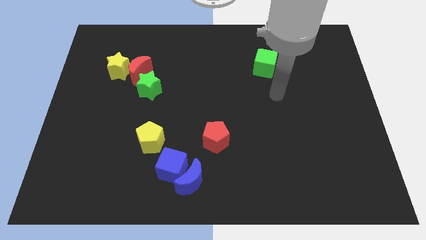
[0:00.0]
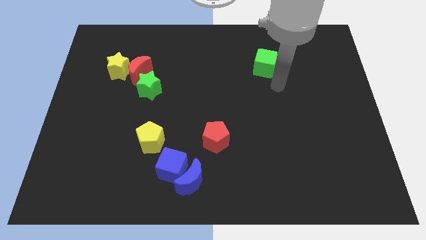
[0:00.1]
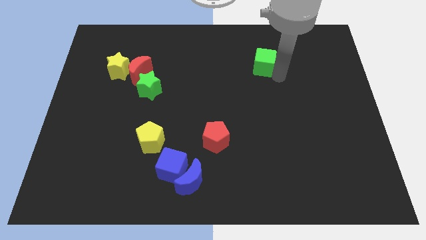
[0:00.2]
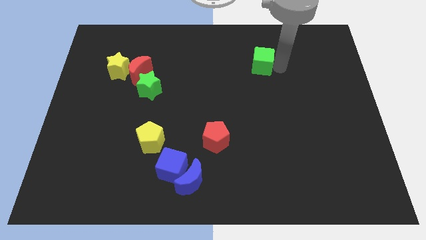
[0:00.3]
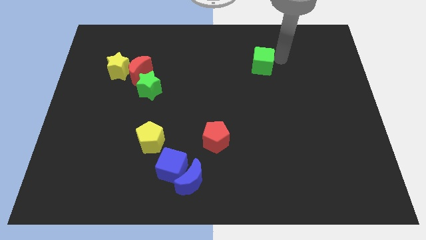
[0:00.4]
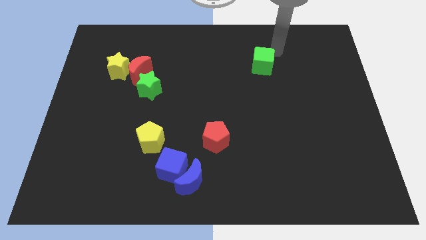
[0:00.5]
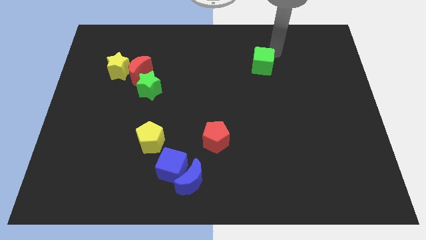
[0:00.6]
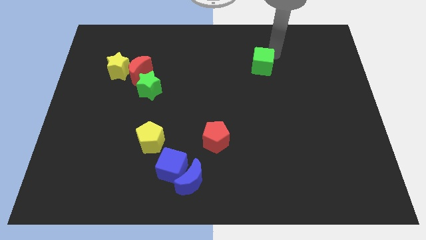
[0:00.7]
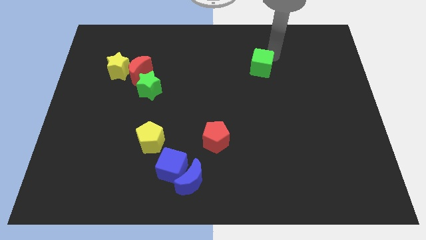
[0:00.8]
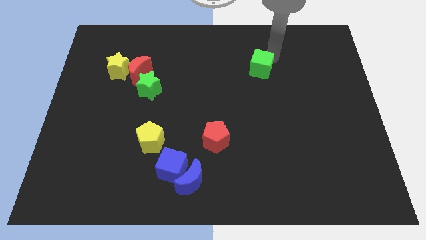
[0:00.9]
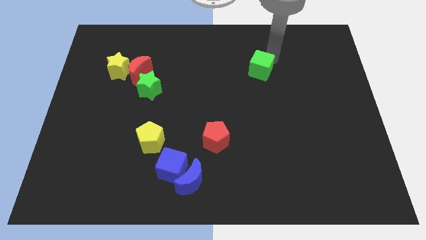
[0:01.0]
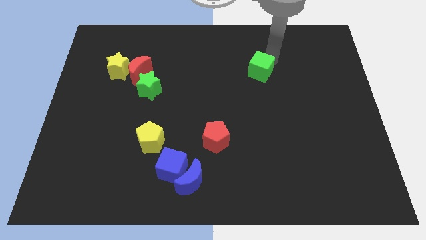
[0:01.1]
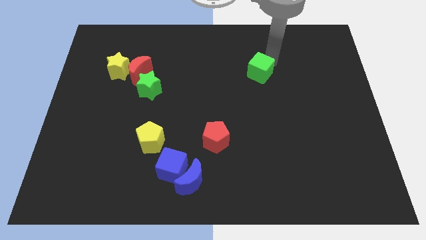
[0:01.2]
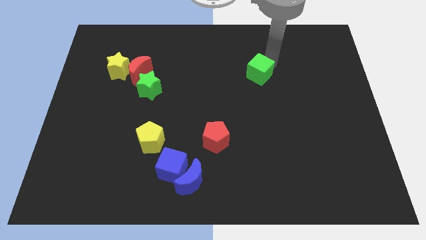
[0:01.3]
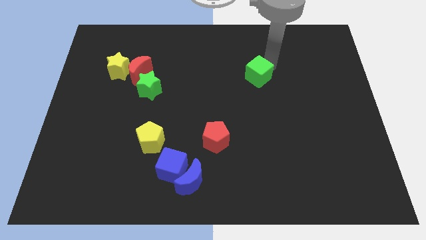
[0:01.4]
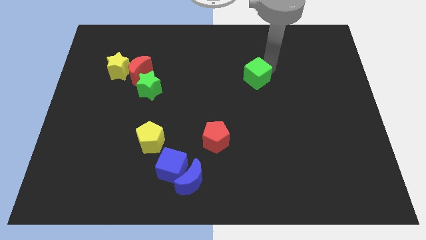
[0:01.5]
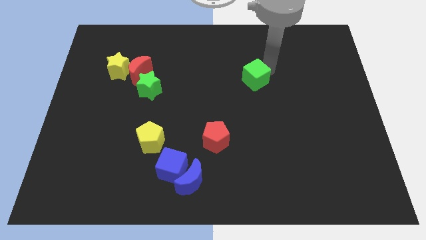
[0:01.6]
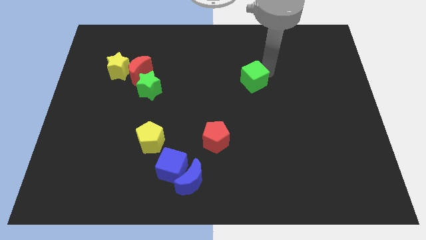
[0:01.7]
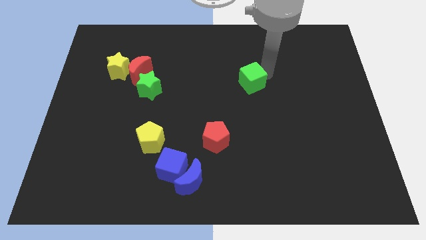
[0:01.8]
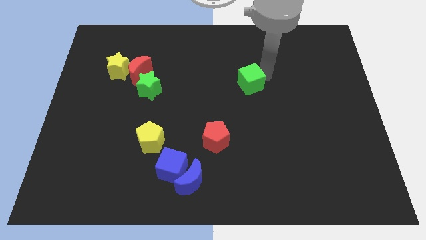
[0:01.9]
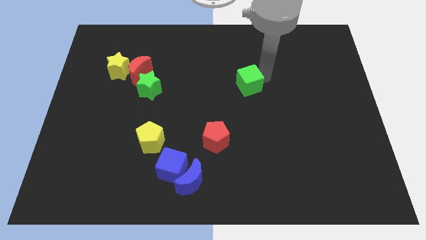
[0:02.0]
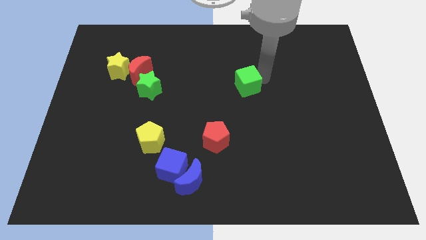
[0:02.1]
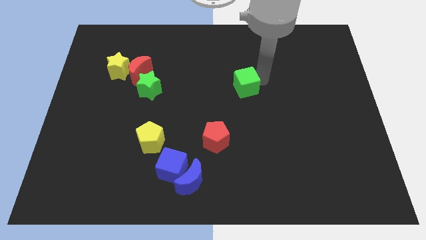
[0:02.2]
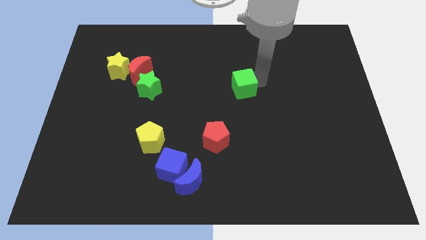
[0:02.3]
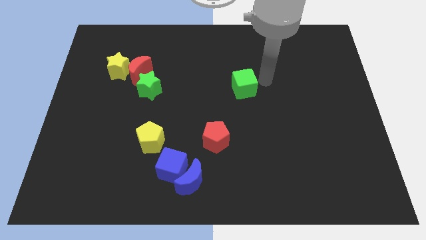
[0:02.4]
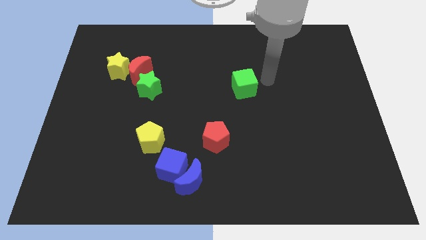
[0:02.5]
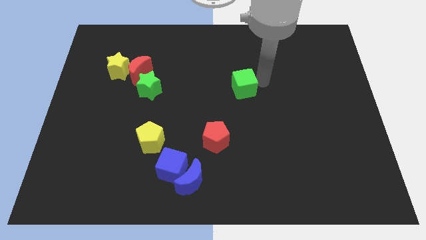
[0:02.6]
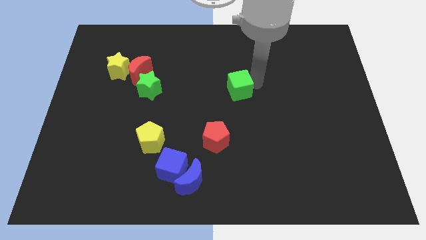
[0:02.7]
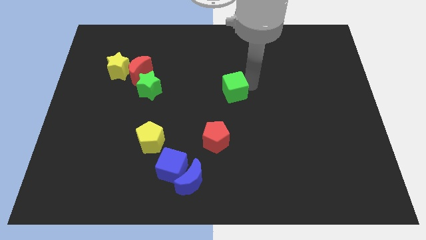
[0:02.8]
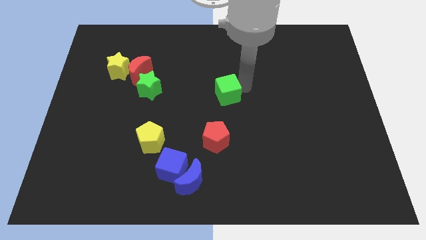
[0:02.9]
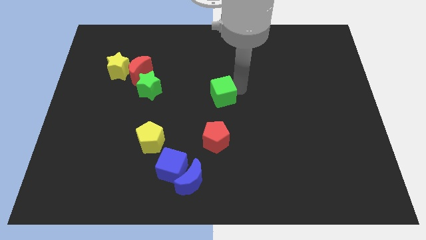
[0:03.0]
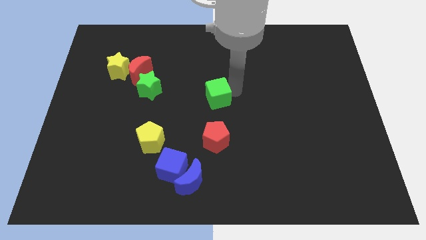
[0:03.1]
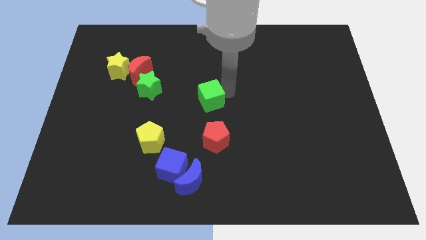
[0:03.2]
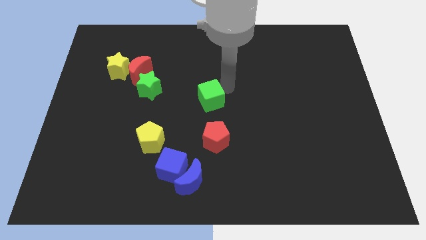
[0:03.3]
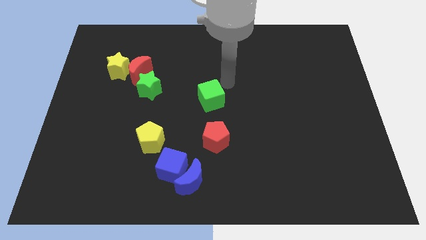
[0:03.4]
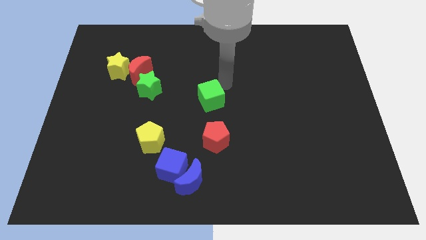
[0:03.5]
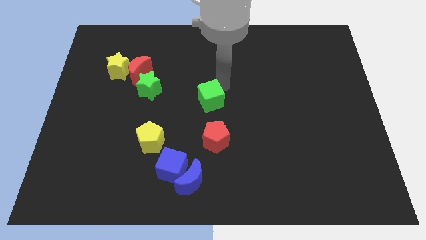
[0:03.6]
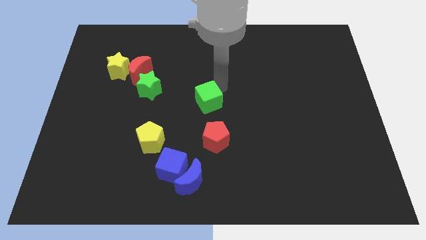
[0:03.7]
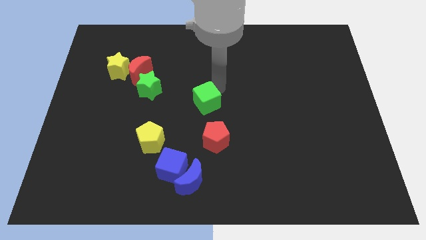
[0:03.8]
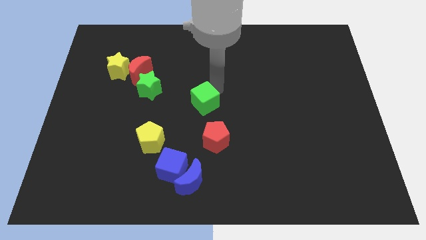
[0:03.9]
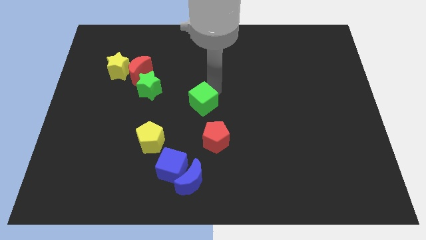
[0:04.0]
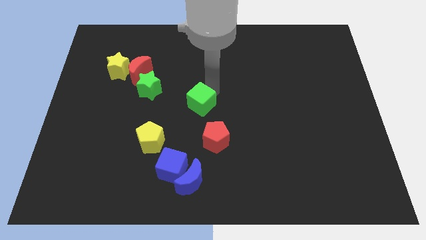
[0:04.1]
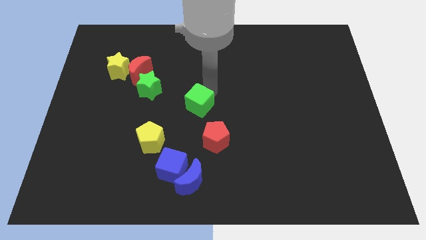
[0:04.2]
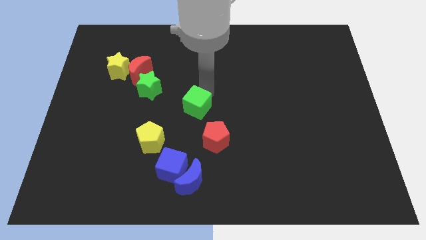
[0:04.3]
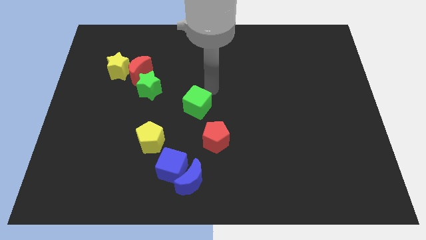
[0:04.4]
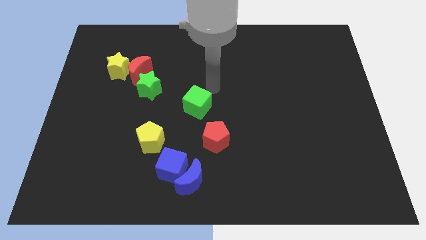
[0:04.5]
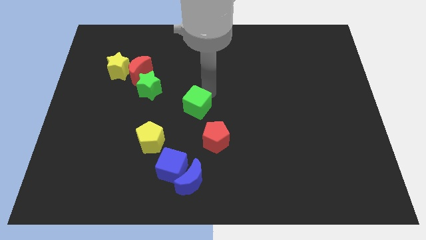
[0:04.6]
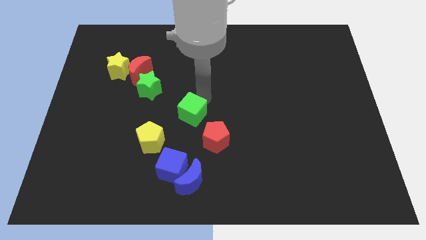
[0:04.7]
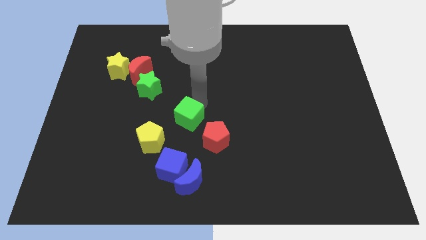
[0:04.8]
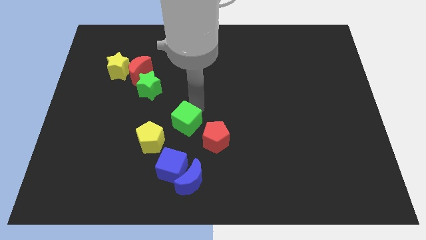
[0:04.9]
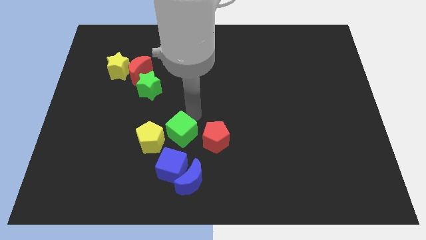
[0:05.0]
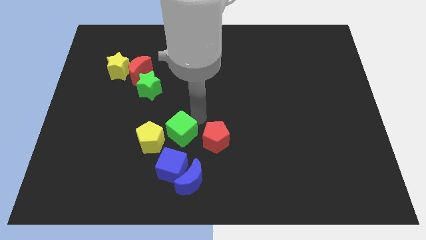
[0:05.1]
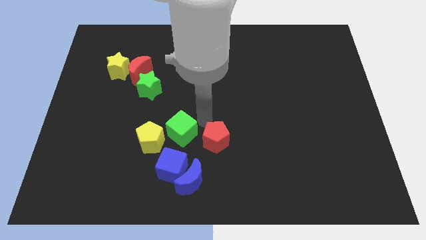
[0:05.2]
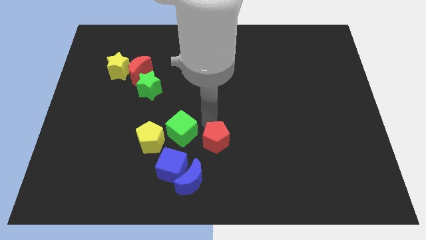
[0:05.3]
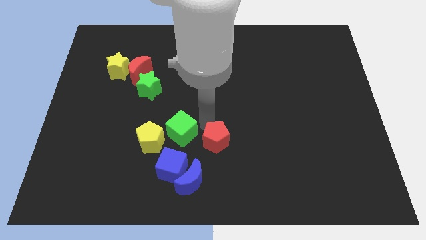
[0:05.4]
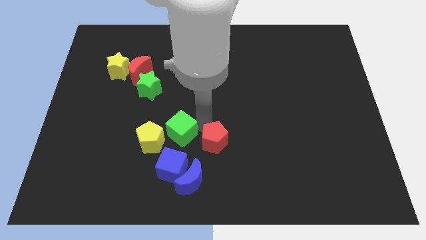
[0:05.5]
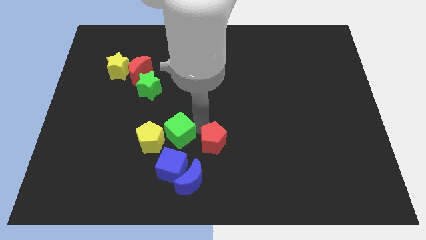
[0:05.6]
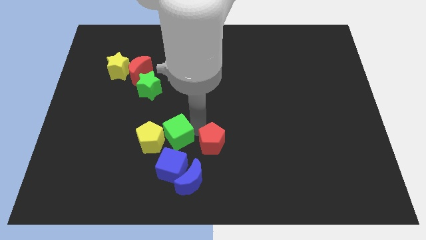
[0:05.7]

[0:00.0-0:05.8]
put the green cube to the yellow pentagon

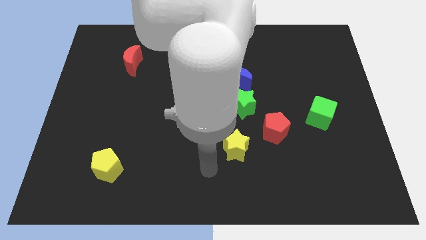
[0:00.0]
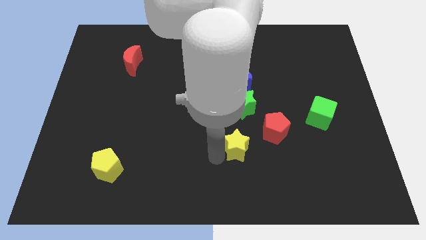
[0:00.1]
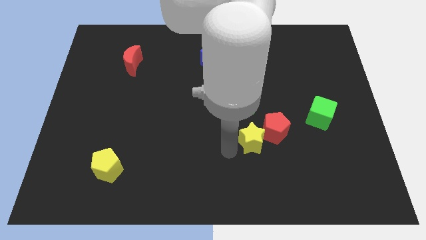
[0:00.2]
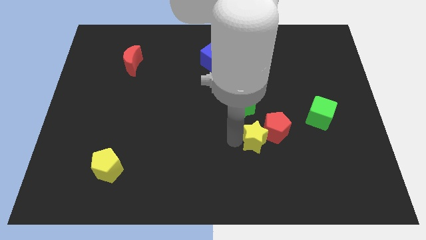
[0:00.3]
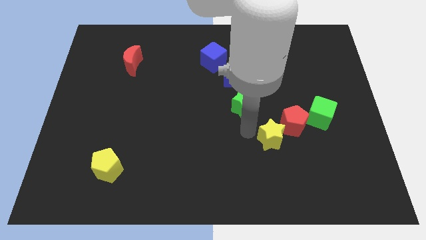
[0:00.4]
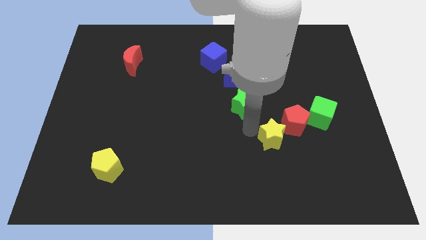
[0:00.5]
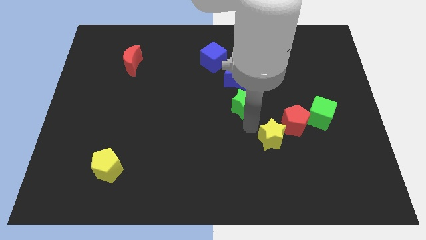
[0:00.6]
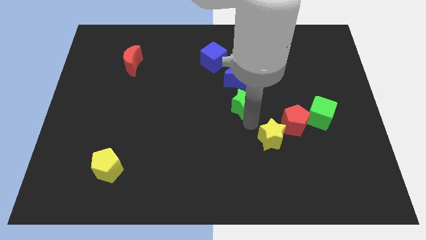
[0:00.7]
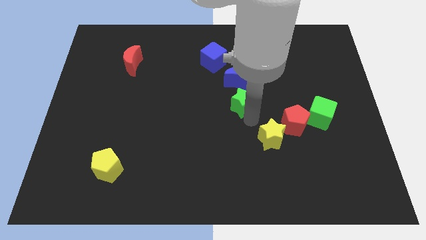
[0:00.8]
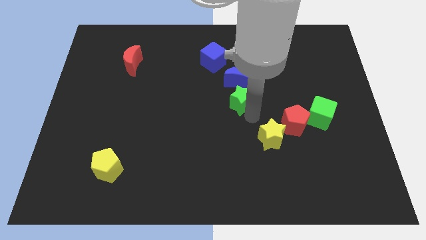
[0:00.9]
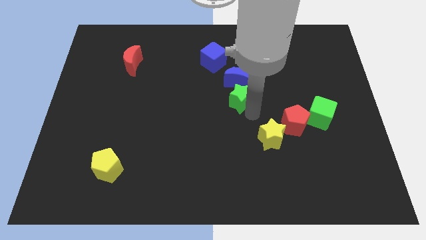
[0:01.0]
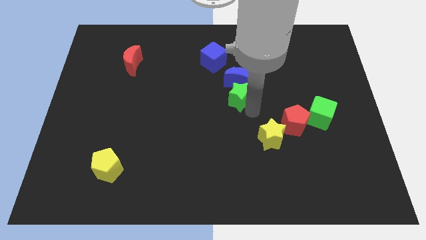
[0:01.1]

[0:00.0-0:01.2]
slide the green star close to the blue moon
